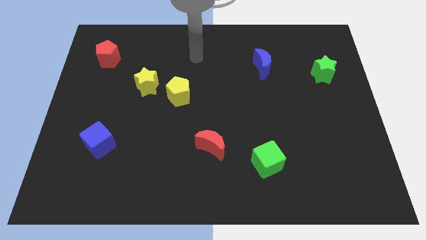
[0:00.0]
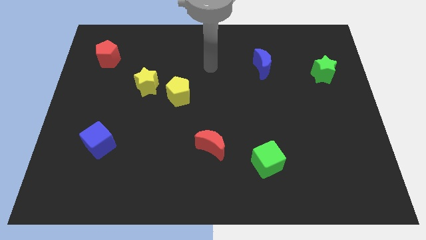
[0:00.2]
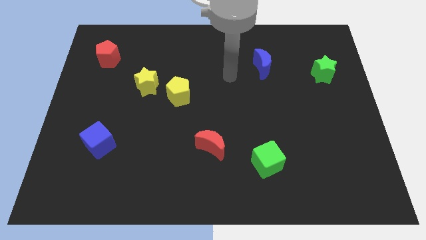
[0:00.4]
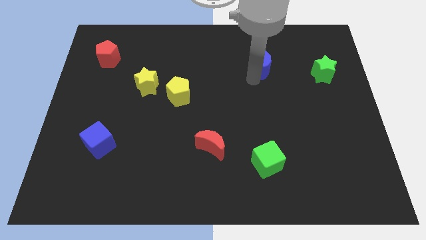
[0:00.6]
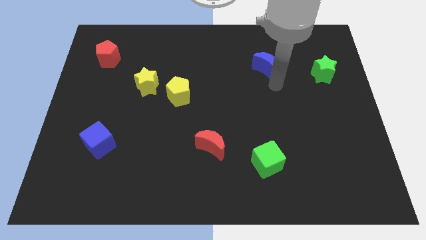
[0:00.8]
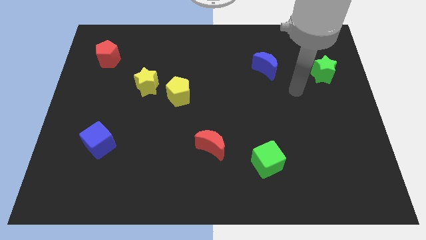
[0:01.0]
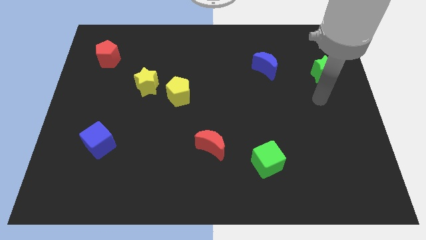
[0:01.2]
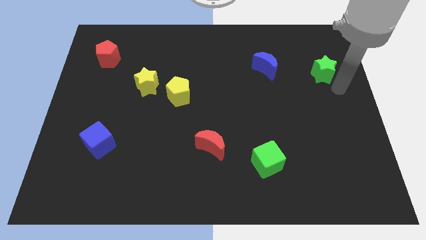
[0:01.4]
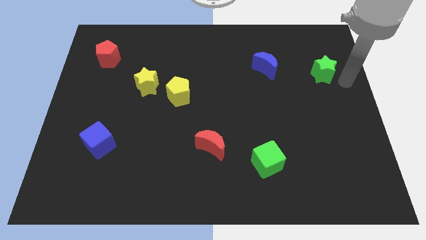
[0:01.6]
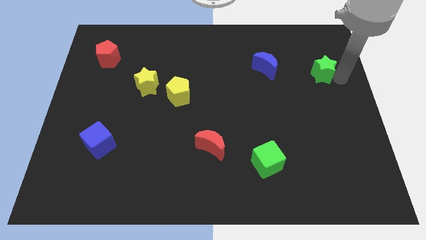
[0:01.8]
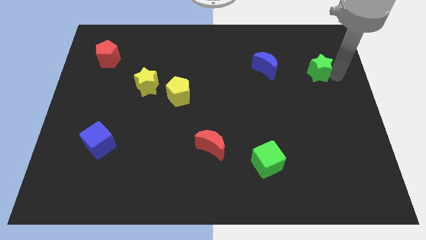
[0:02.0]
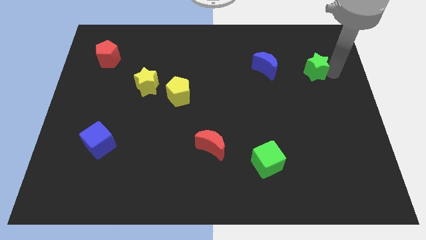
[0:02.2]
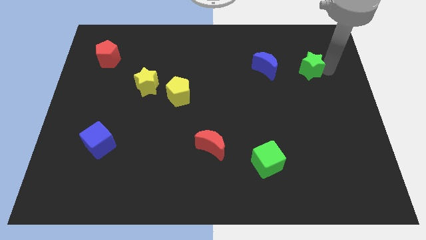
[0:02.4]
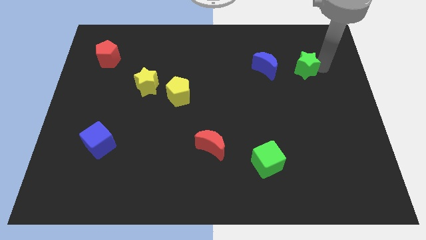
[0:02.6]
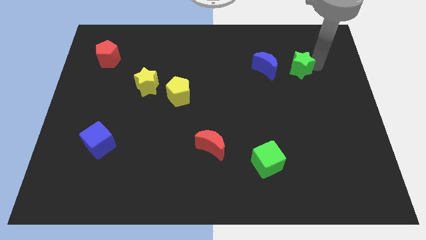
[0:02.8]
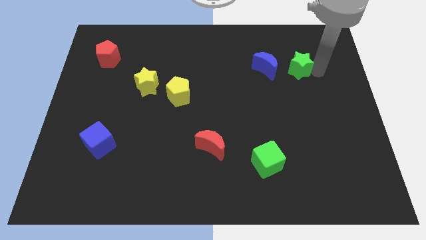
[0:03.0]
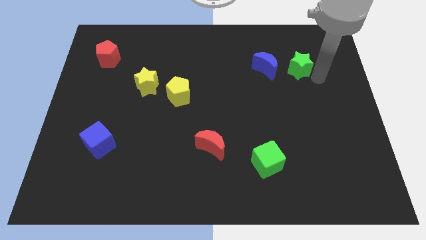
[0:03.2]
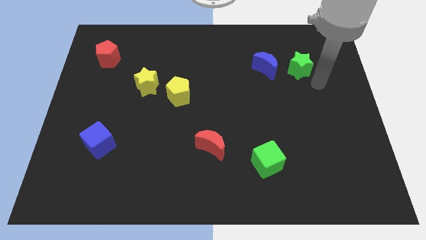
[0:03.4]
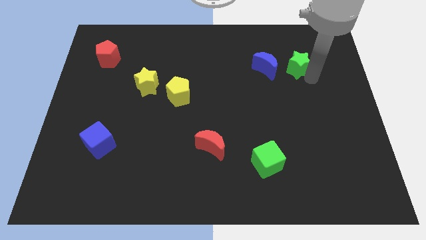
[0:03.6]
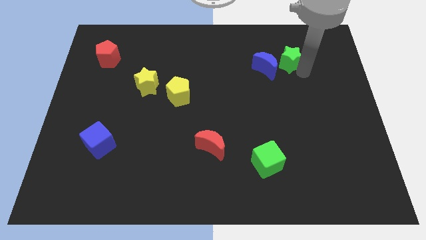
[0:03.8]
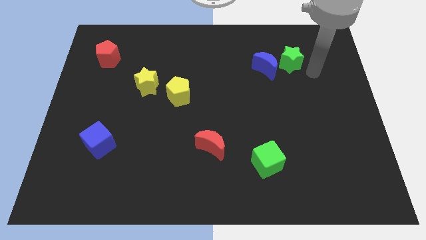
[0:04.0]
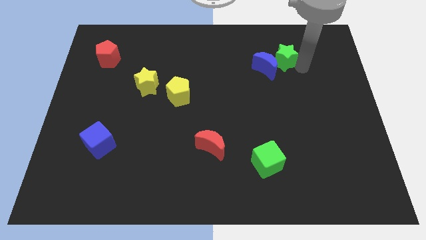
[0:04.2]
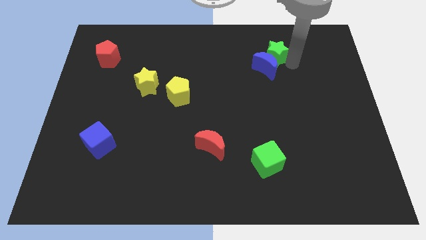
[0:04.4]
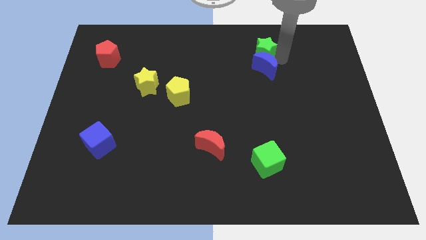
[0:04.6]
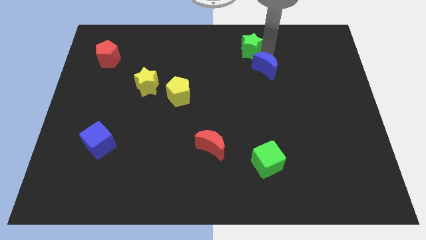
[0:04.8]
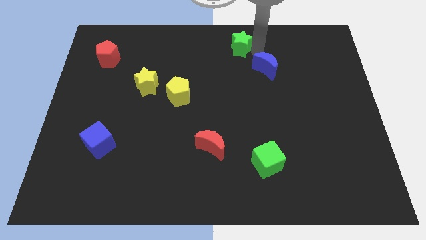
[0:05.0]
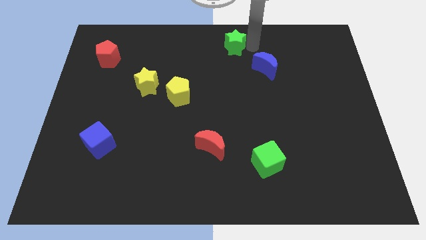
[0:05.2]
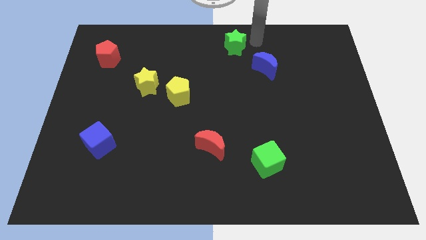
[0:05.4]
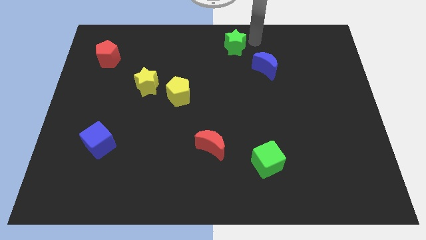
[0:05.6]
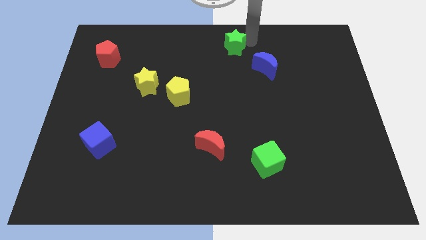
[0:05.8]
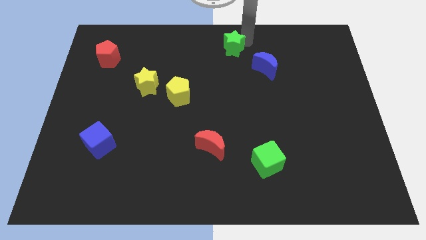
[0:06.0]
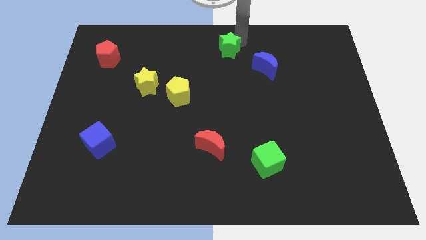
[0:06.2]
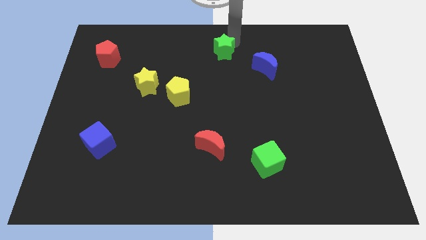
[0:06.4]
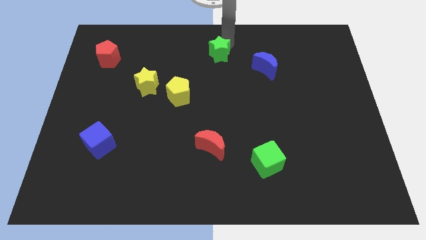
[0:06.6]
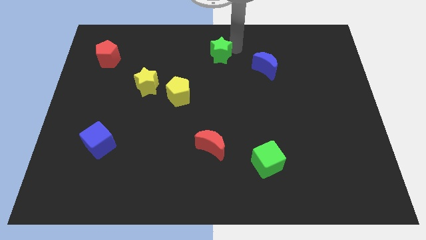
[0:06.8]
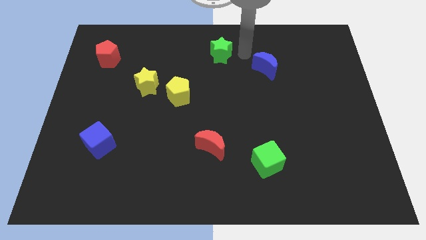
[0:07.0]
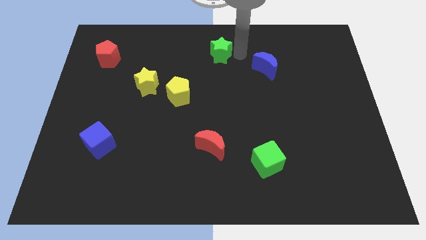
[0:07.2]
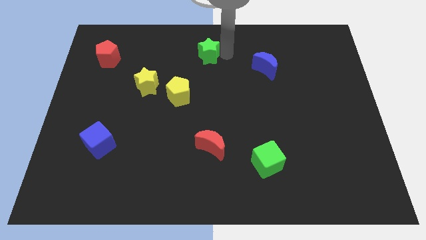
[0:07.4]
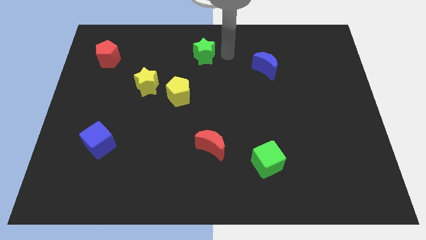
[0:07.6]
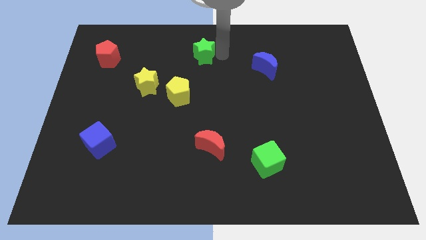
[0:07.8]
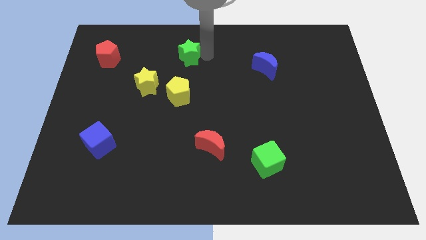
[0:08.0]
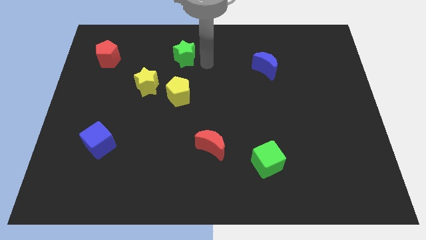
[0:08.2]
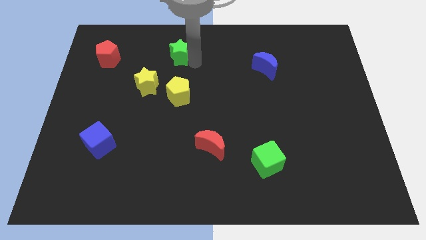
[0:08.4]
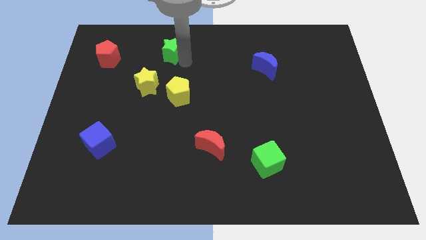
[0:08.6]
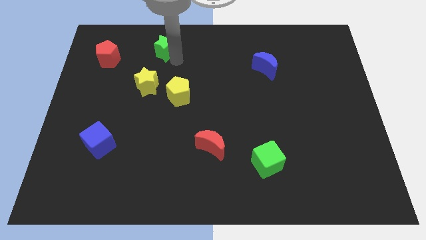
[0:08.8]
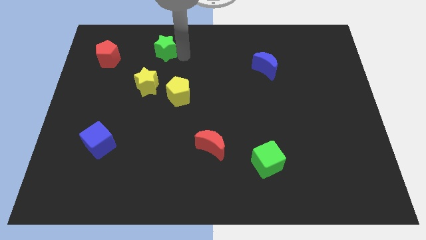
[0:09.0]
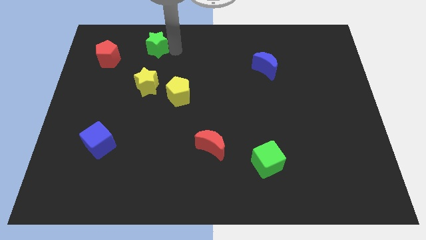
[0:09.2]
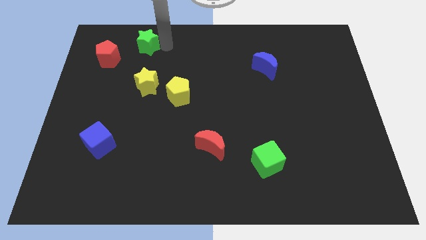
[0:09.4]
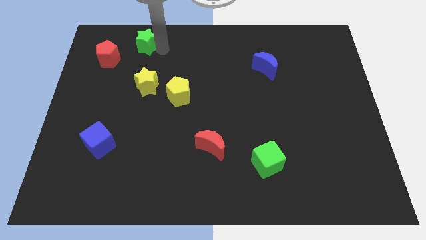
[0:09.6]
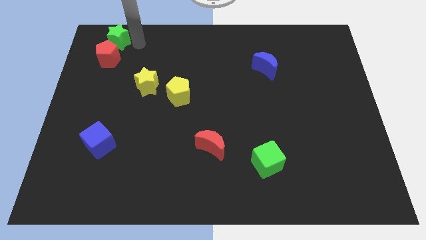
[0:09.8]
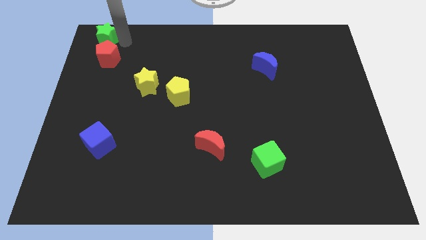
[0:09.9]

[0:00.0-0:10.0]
slide the green star to the top left corner

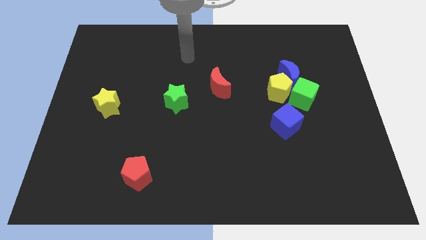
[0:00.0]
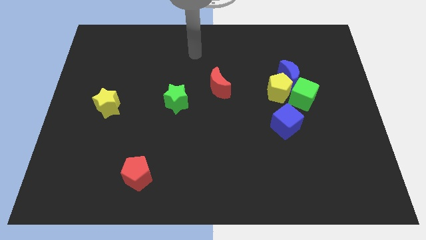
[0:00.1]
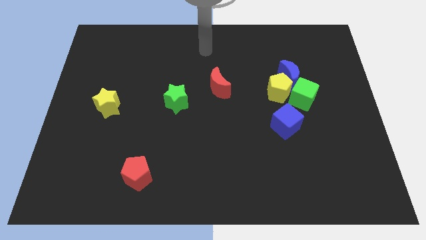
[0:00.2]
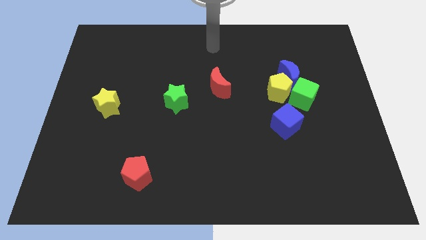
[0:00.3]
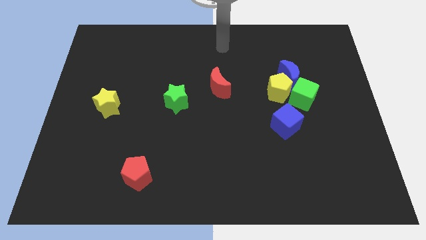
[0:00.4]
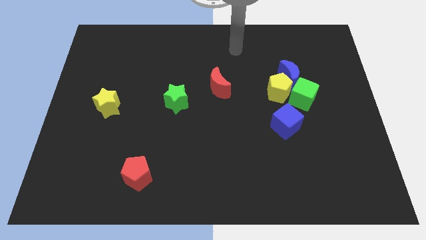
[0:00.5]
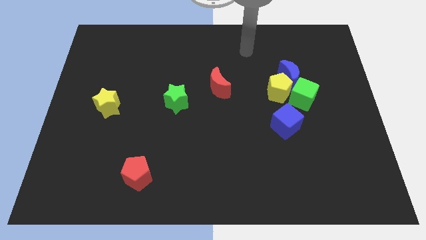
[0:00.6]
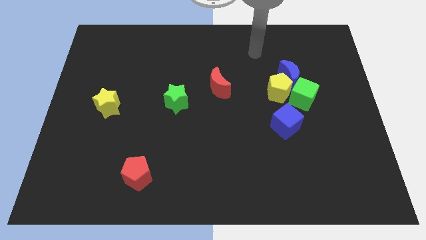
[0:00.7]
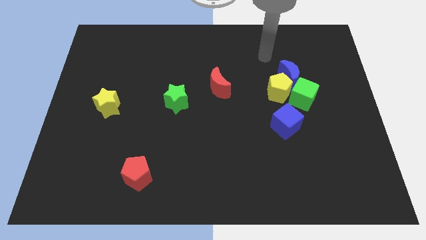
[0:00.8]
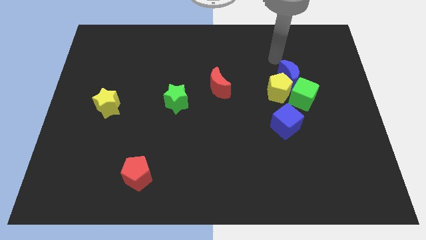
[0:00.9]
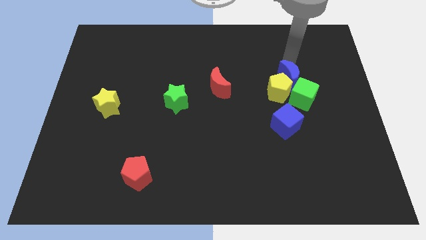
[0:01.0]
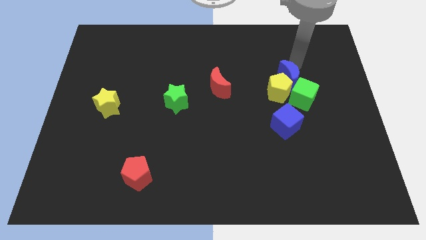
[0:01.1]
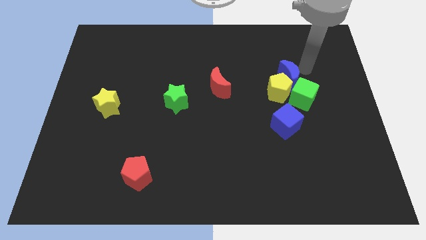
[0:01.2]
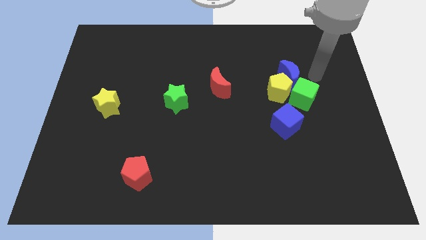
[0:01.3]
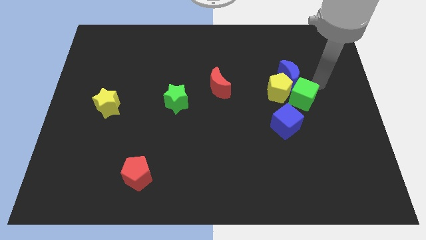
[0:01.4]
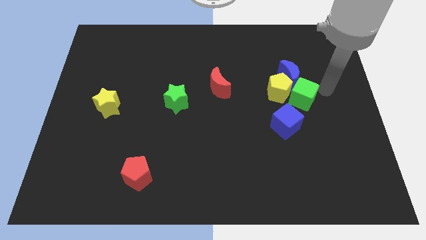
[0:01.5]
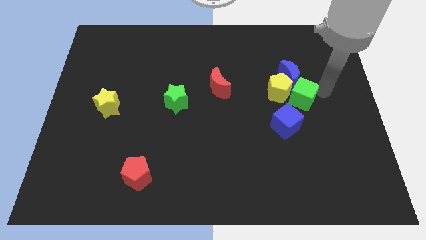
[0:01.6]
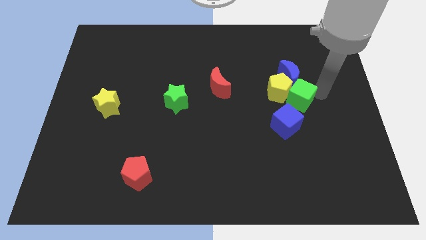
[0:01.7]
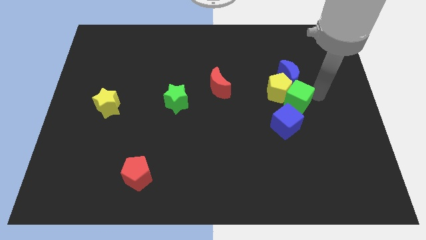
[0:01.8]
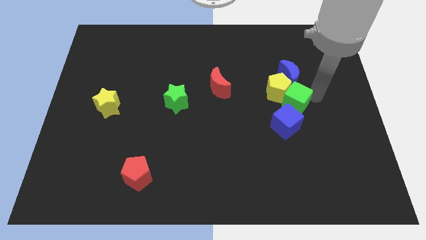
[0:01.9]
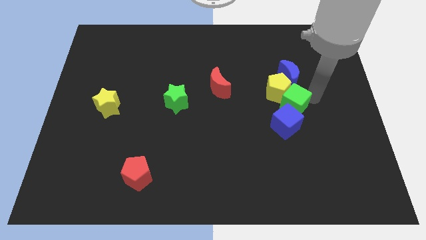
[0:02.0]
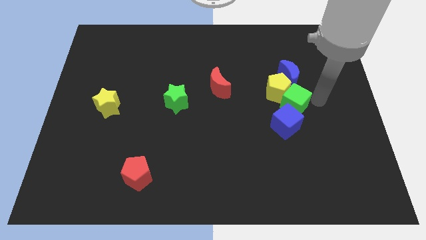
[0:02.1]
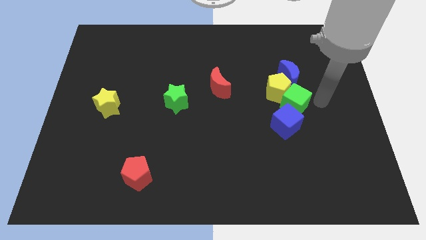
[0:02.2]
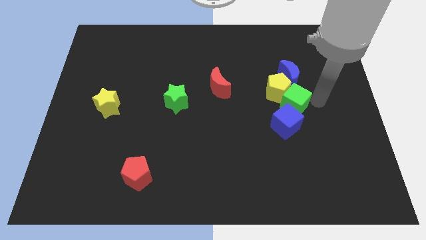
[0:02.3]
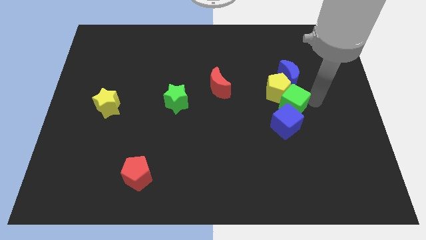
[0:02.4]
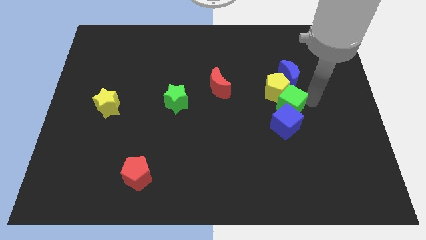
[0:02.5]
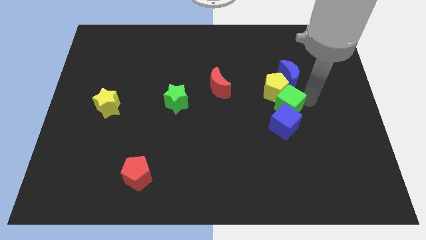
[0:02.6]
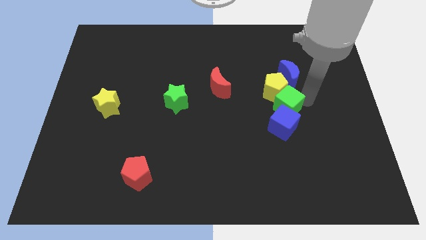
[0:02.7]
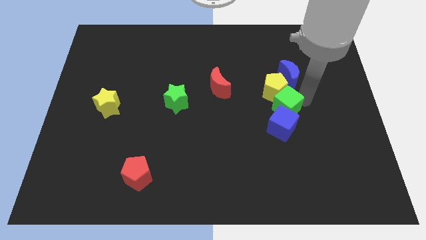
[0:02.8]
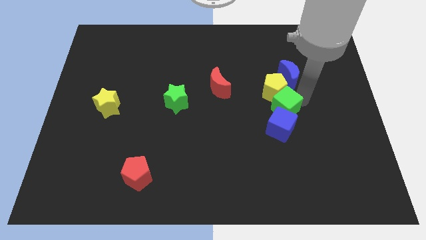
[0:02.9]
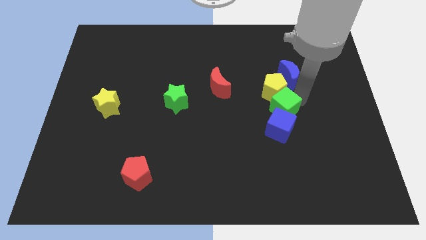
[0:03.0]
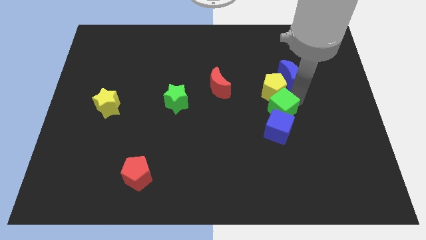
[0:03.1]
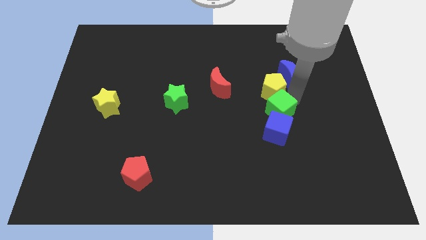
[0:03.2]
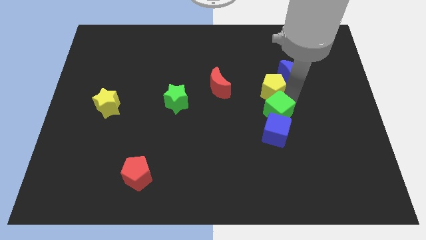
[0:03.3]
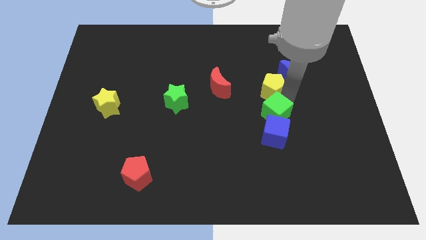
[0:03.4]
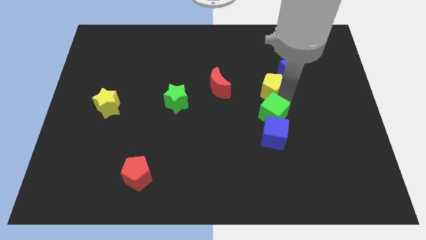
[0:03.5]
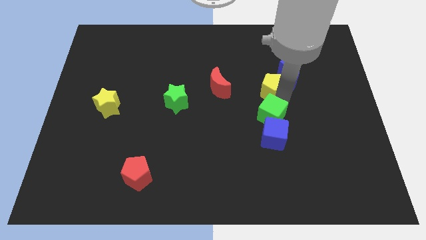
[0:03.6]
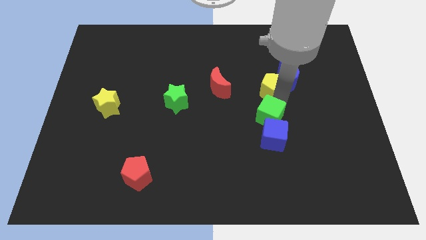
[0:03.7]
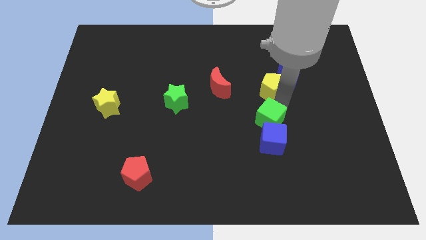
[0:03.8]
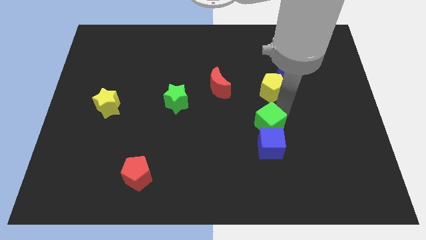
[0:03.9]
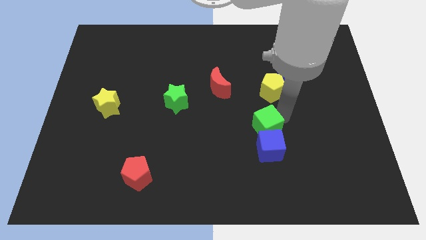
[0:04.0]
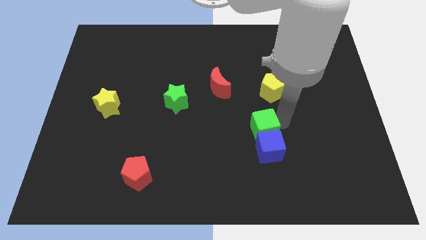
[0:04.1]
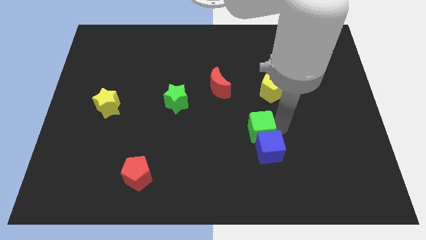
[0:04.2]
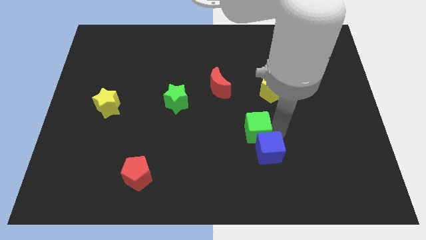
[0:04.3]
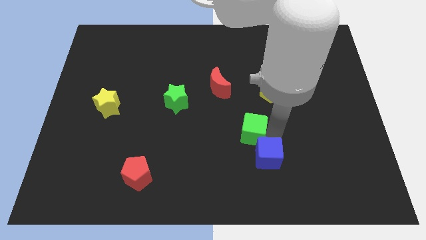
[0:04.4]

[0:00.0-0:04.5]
push the green cube to the middle
